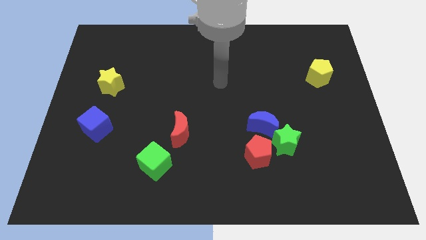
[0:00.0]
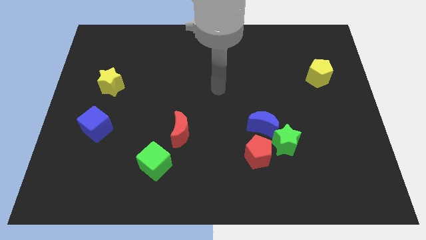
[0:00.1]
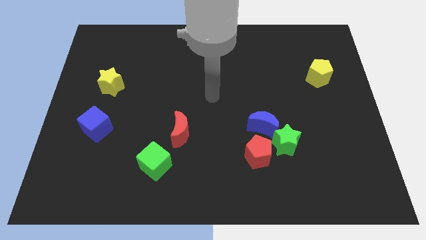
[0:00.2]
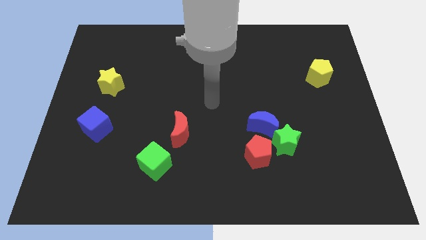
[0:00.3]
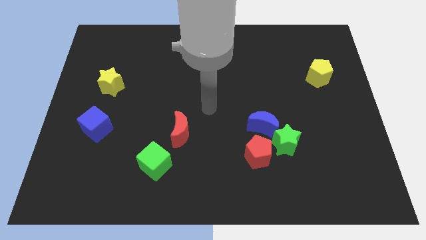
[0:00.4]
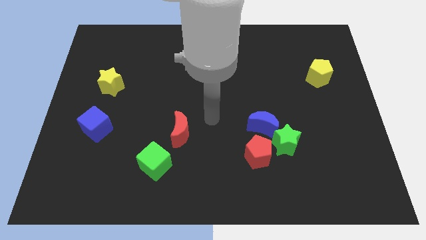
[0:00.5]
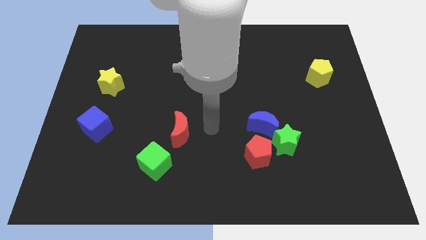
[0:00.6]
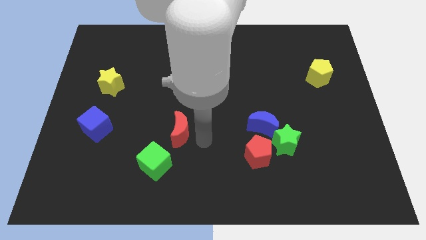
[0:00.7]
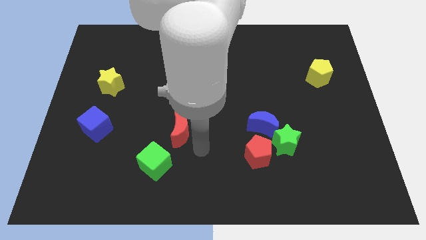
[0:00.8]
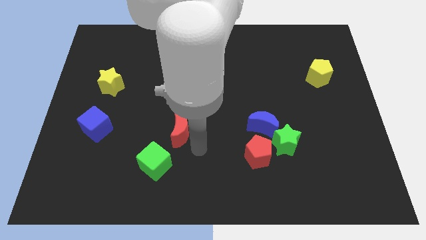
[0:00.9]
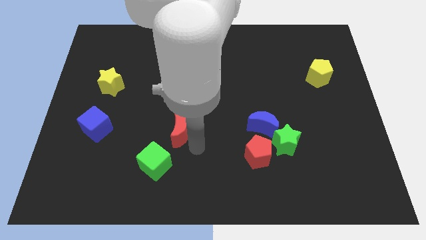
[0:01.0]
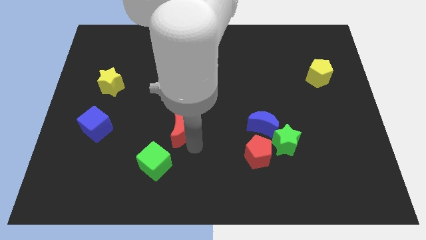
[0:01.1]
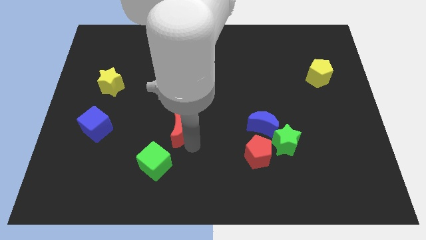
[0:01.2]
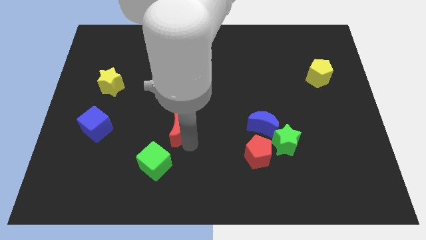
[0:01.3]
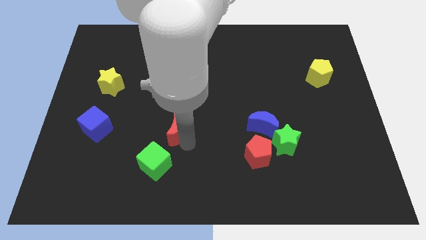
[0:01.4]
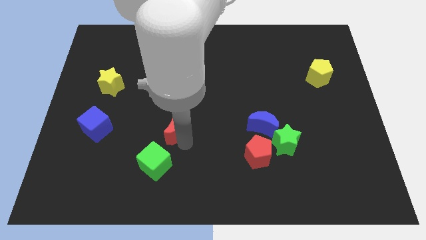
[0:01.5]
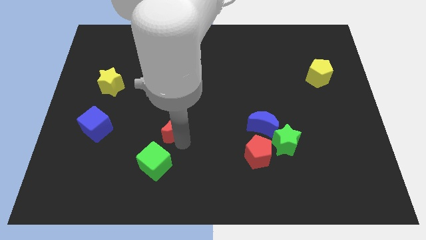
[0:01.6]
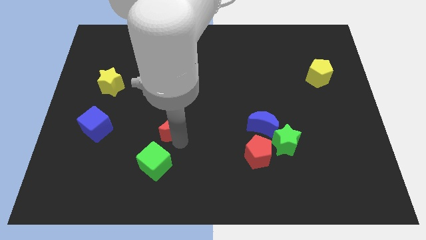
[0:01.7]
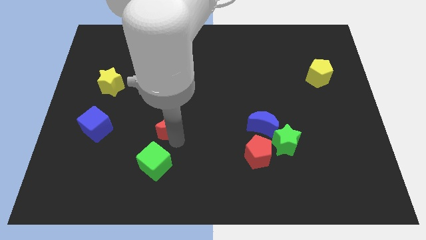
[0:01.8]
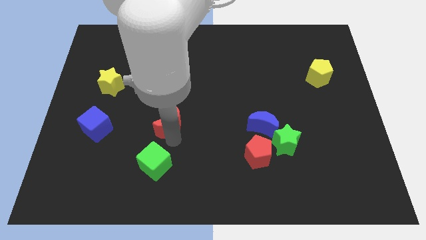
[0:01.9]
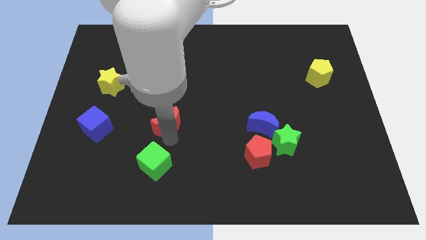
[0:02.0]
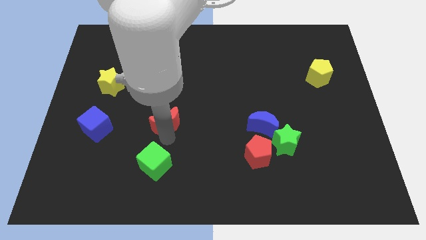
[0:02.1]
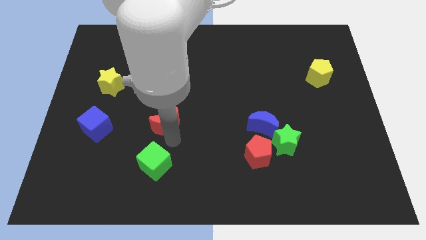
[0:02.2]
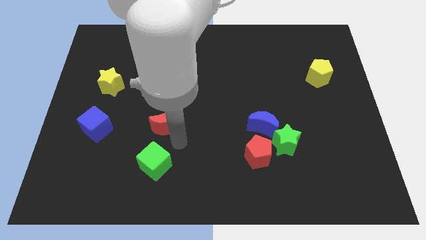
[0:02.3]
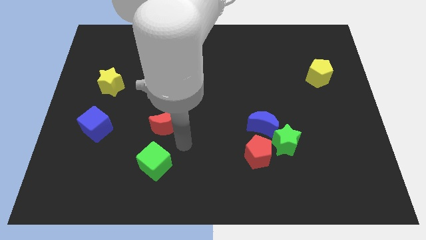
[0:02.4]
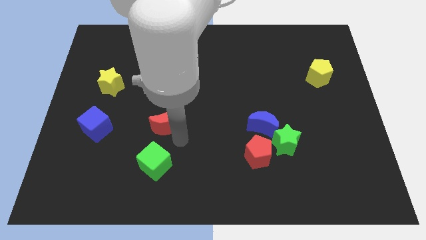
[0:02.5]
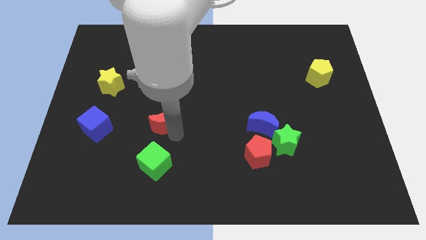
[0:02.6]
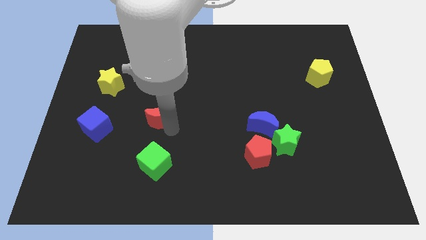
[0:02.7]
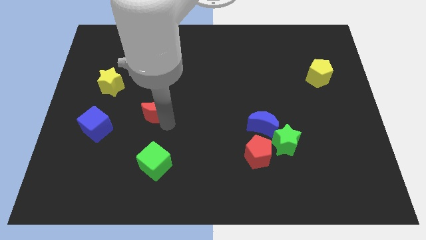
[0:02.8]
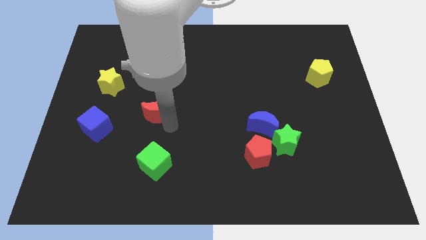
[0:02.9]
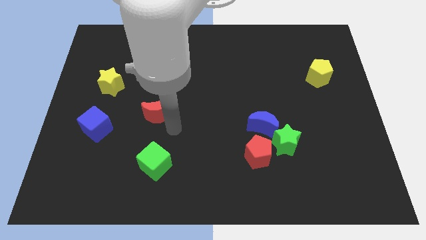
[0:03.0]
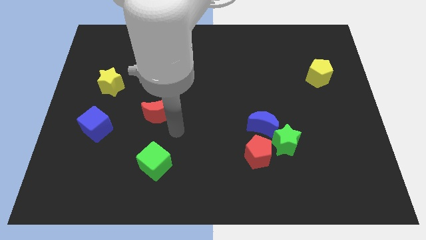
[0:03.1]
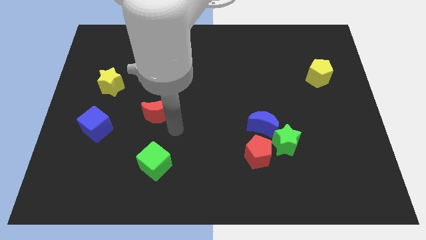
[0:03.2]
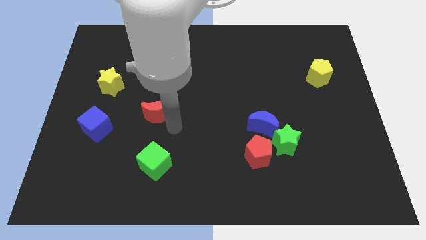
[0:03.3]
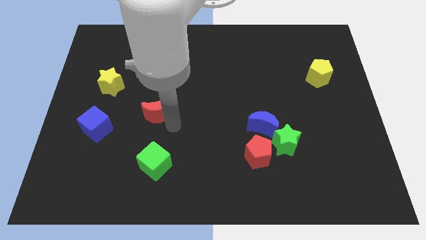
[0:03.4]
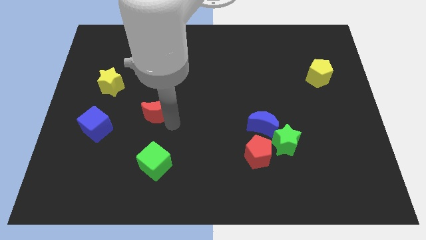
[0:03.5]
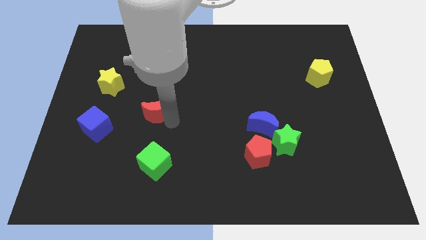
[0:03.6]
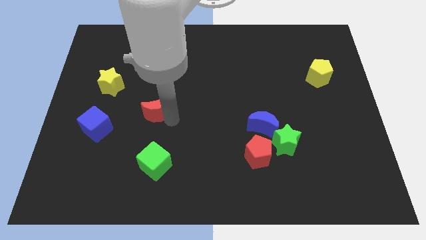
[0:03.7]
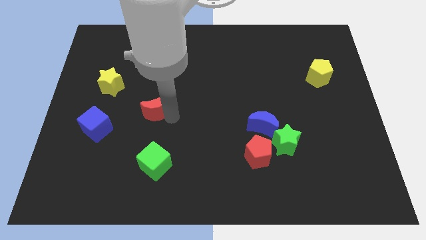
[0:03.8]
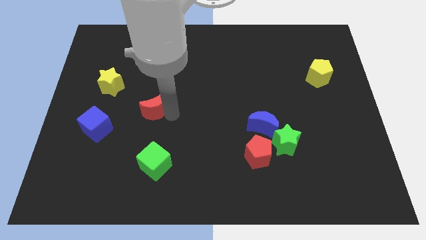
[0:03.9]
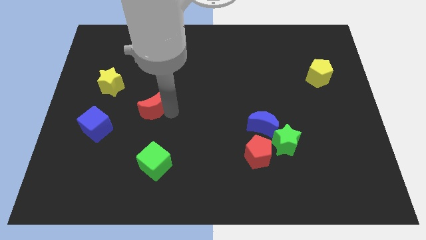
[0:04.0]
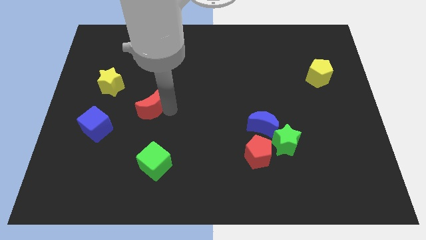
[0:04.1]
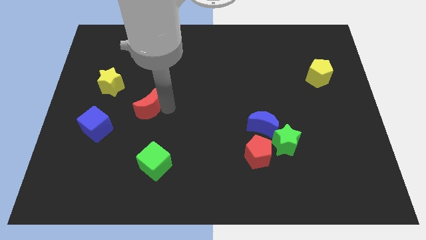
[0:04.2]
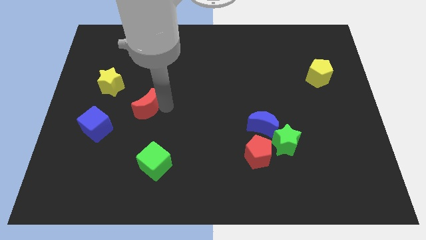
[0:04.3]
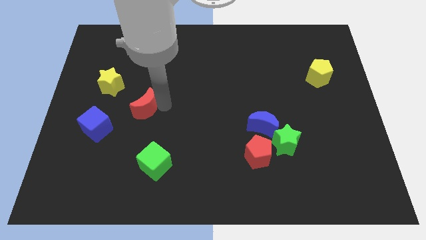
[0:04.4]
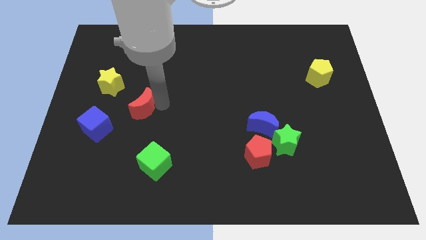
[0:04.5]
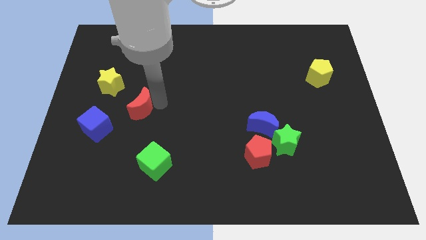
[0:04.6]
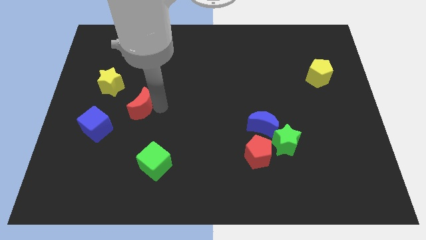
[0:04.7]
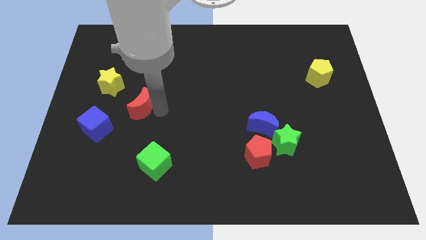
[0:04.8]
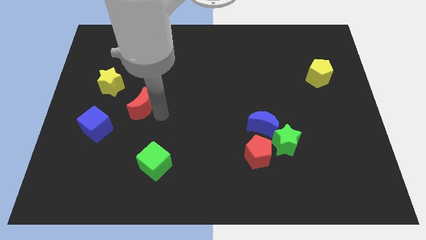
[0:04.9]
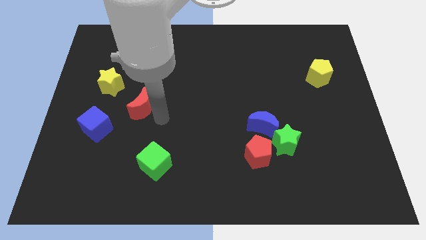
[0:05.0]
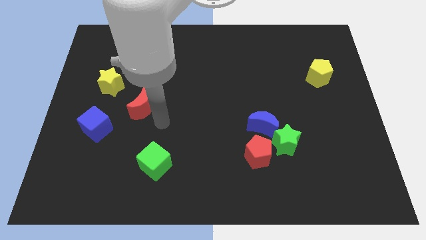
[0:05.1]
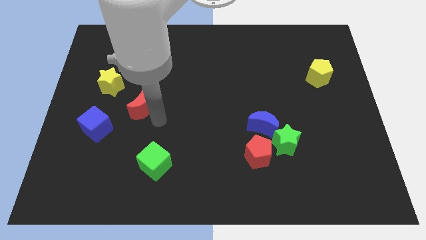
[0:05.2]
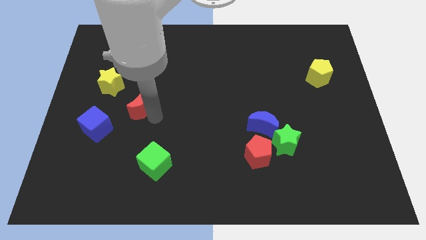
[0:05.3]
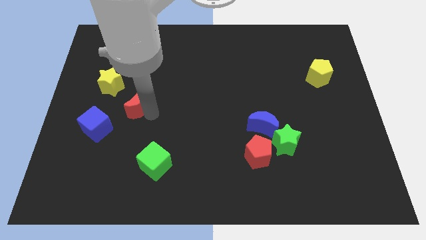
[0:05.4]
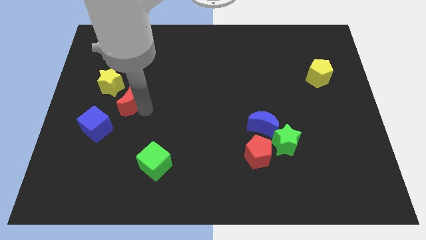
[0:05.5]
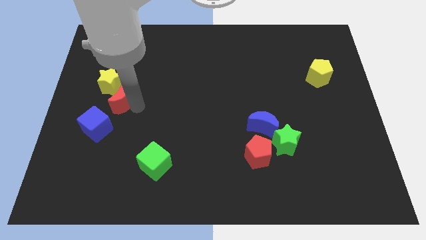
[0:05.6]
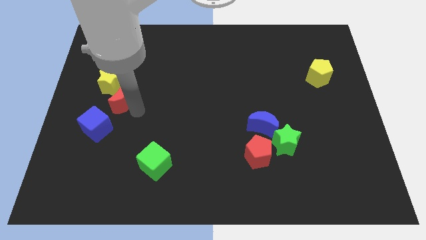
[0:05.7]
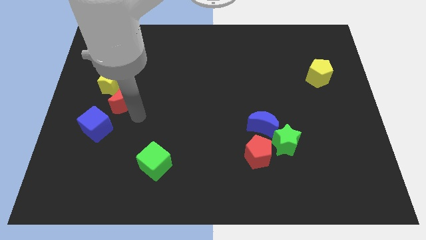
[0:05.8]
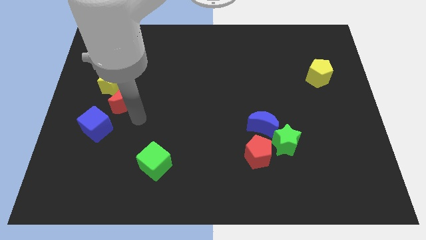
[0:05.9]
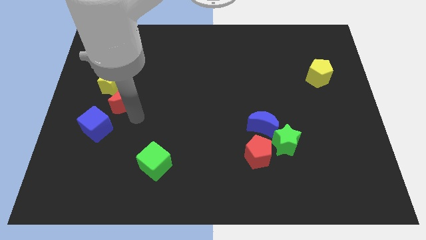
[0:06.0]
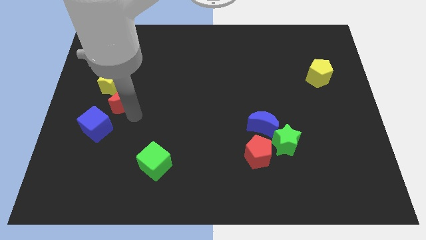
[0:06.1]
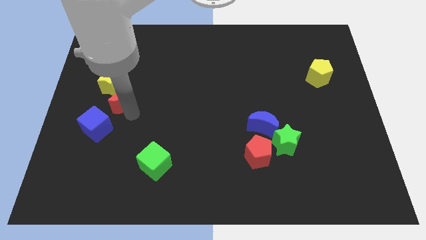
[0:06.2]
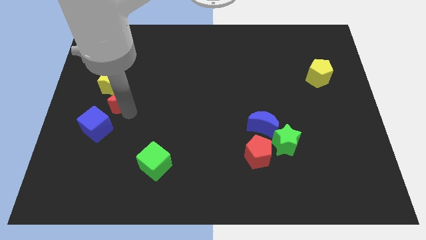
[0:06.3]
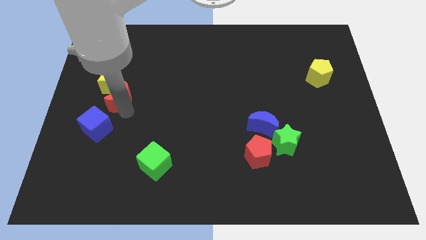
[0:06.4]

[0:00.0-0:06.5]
push the red moon next to the yellow star

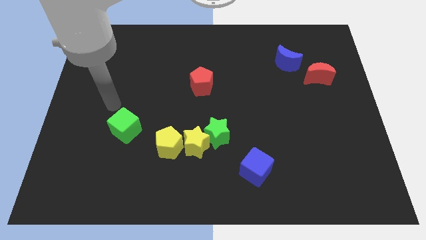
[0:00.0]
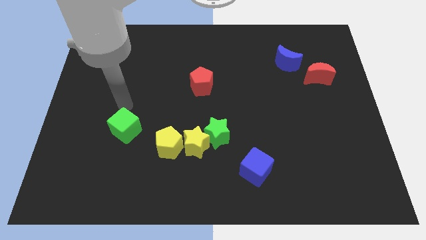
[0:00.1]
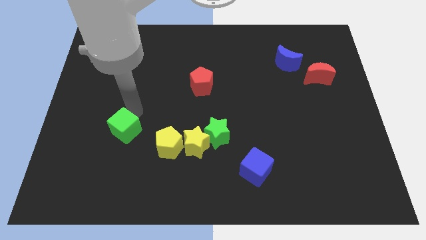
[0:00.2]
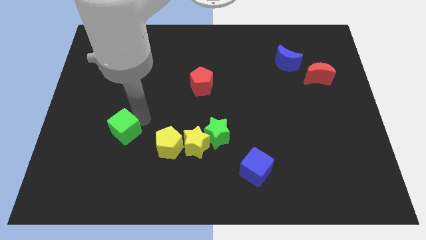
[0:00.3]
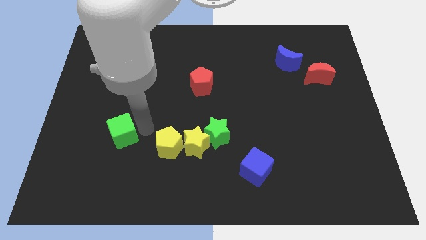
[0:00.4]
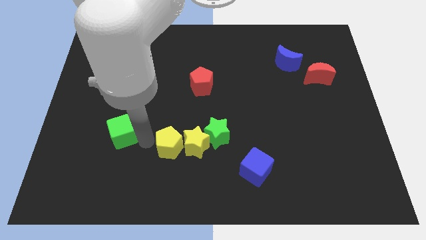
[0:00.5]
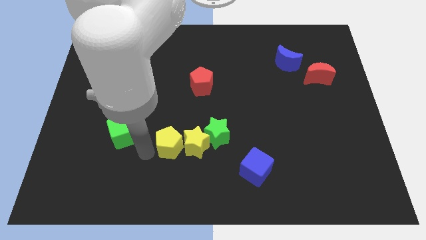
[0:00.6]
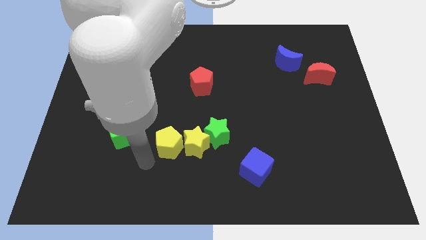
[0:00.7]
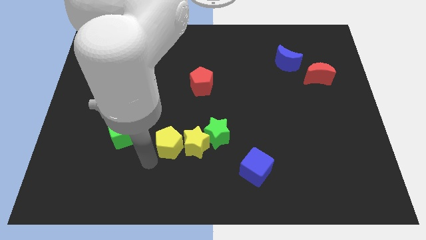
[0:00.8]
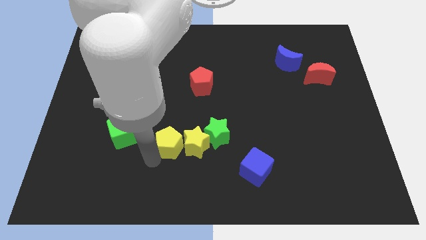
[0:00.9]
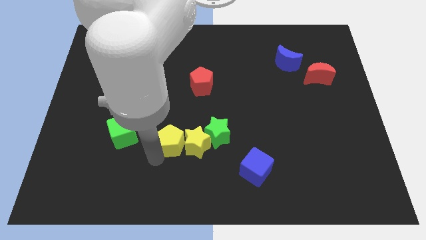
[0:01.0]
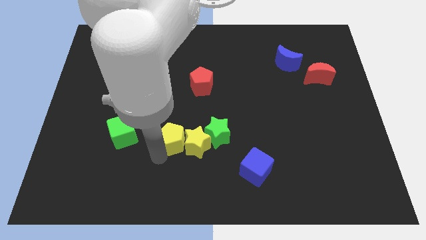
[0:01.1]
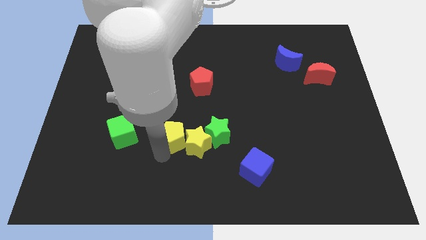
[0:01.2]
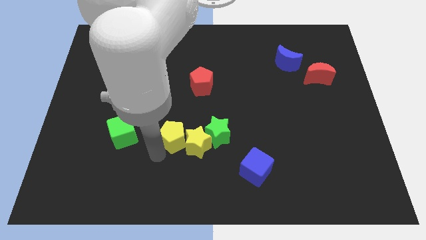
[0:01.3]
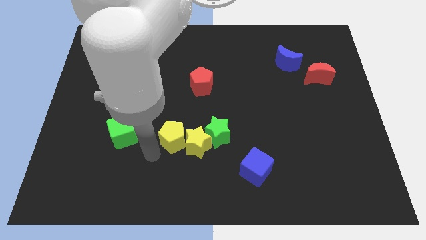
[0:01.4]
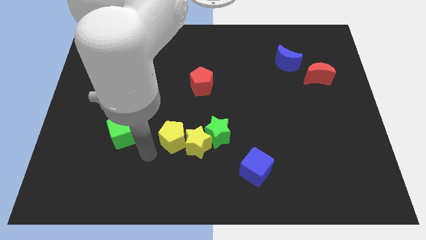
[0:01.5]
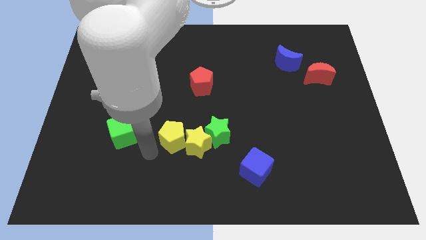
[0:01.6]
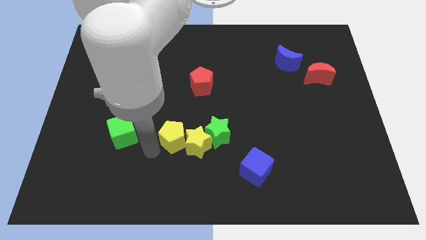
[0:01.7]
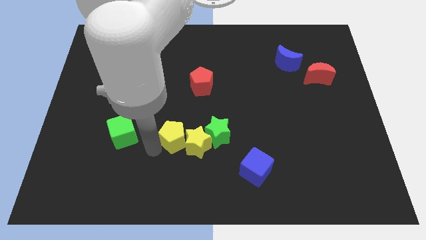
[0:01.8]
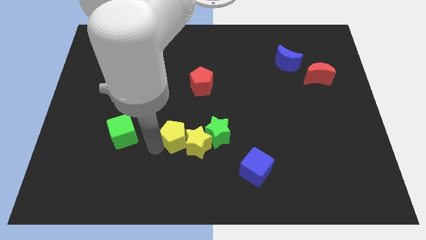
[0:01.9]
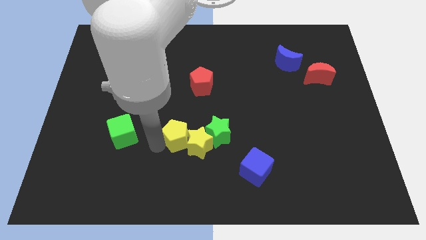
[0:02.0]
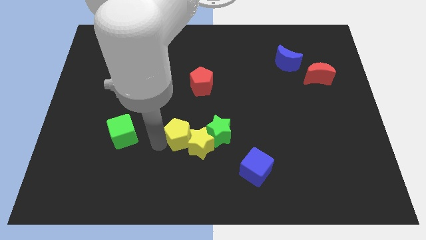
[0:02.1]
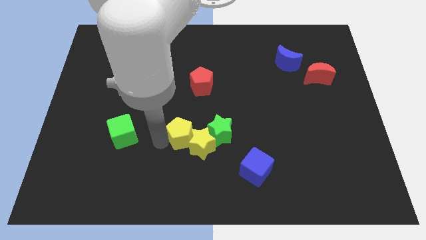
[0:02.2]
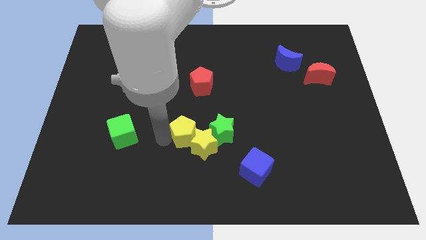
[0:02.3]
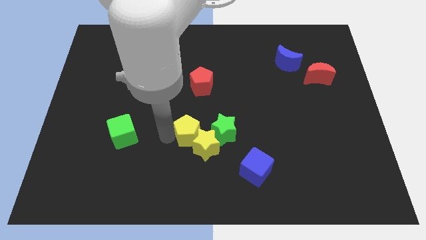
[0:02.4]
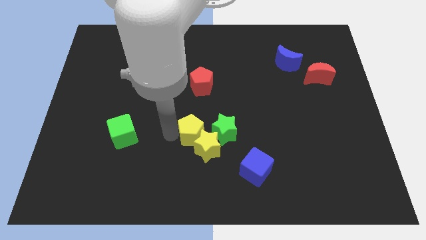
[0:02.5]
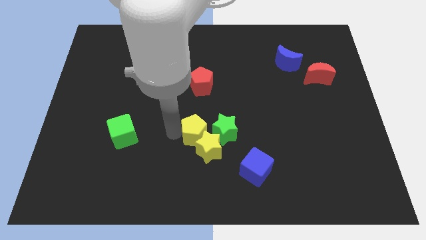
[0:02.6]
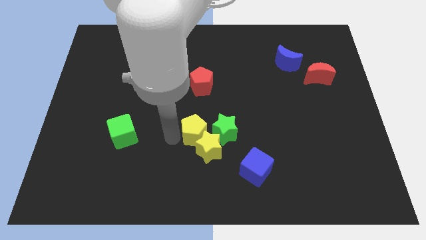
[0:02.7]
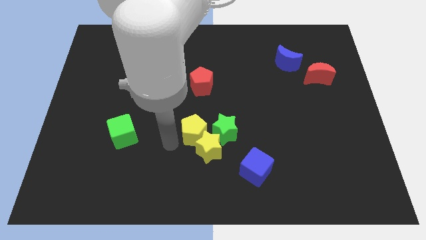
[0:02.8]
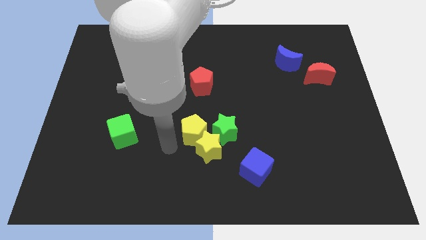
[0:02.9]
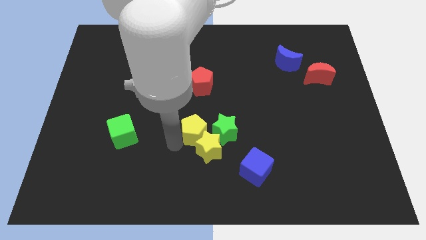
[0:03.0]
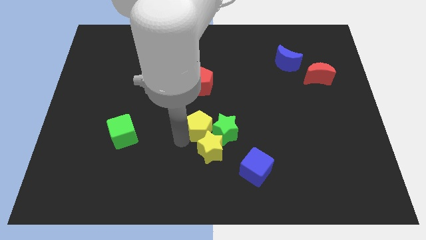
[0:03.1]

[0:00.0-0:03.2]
put the yellow pentagon next to the green star
